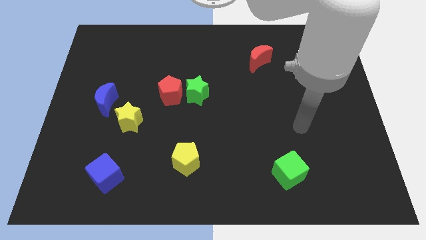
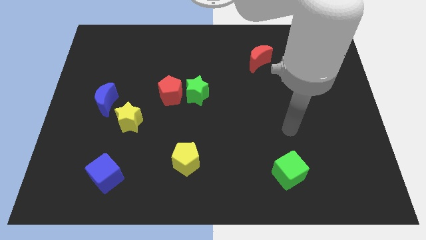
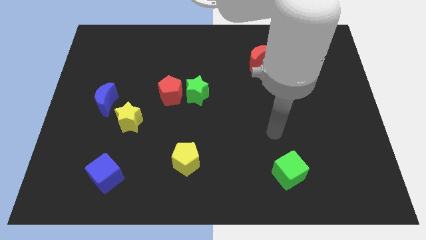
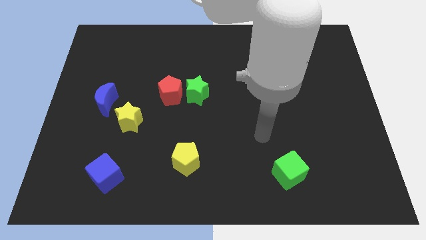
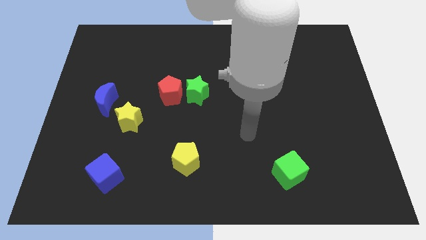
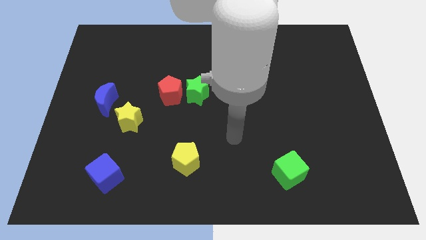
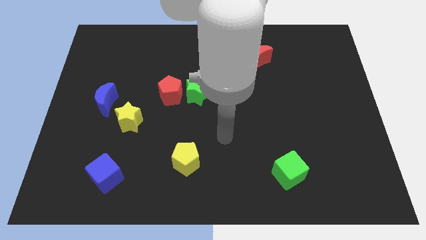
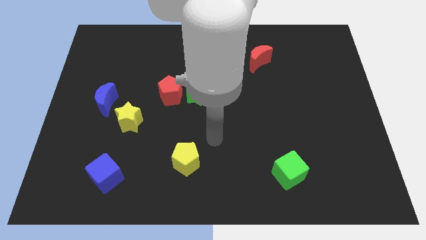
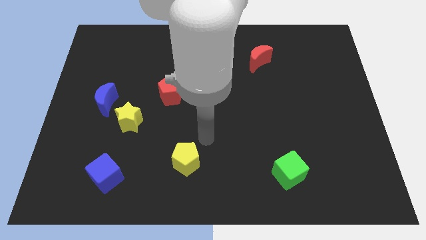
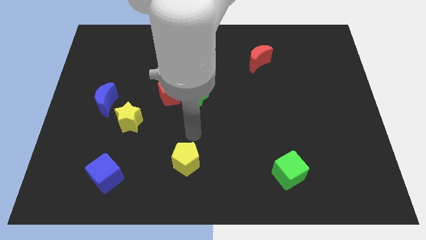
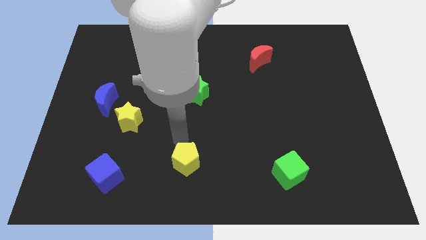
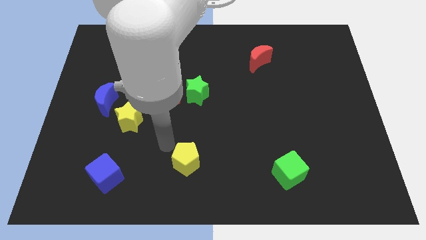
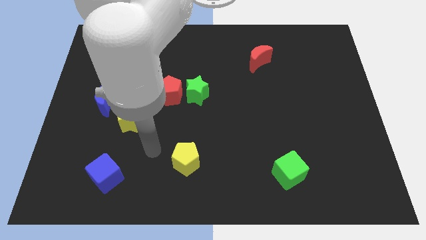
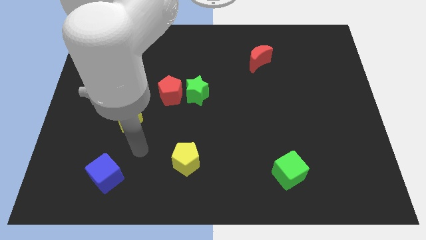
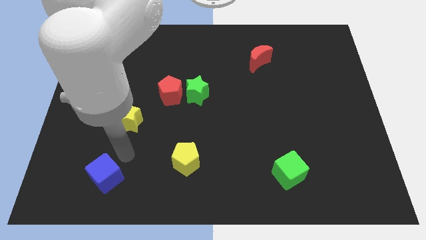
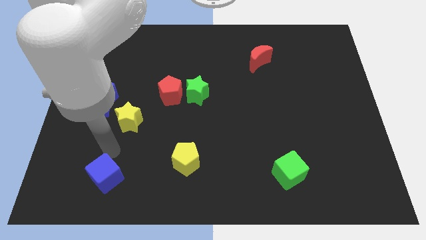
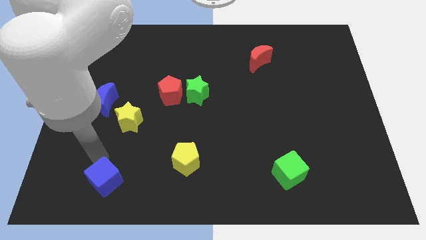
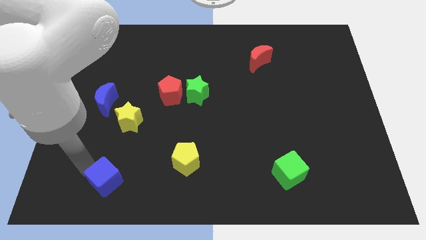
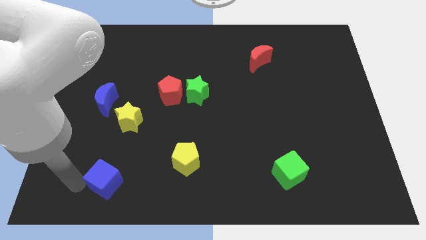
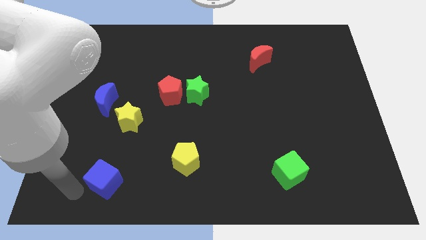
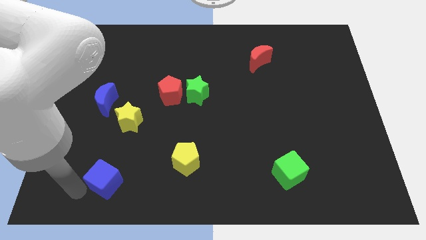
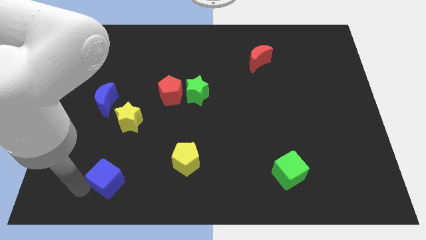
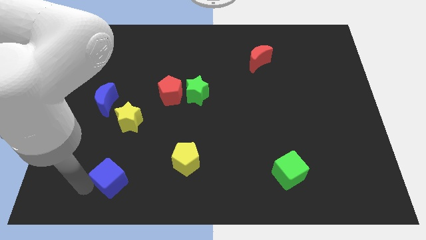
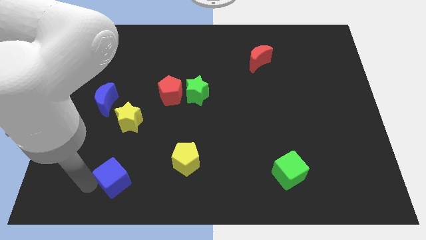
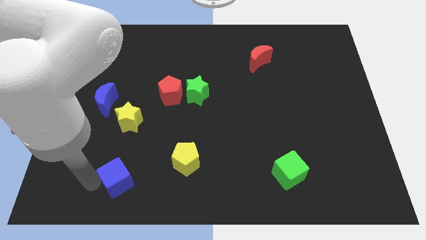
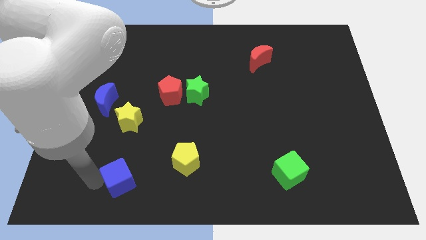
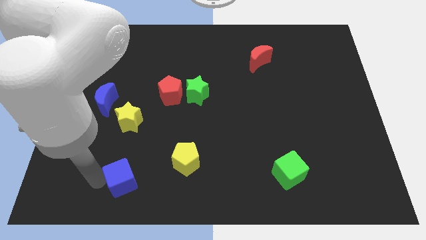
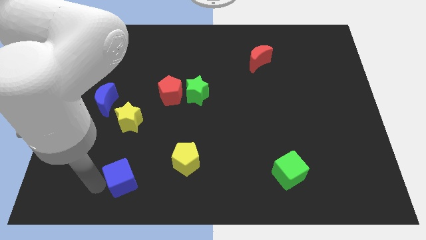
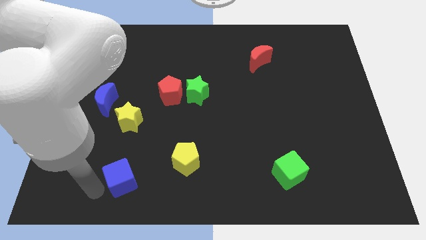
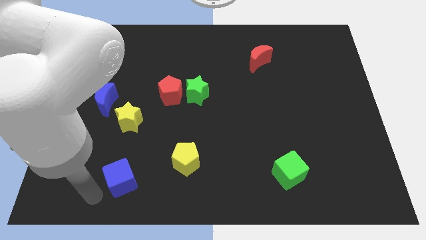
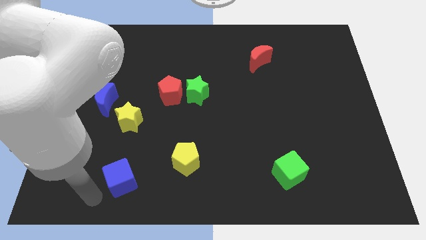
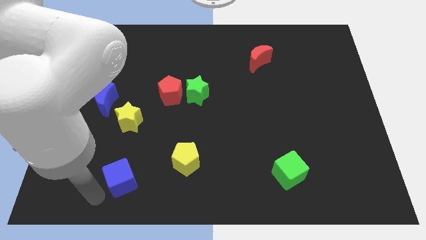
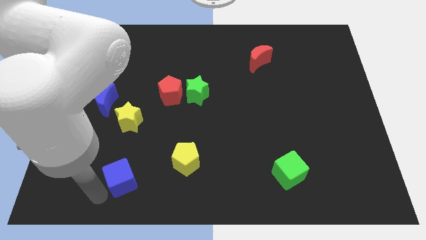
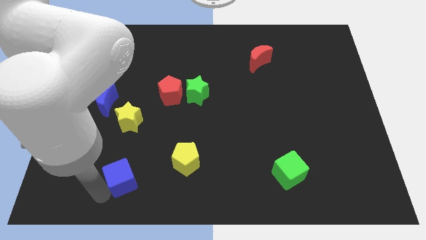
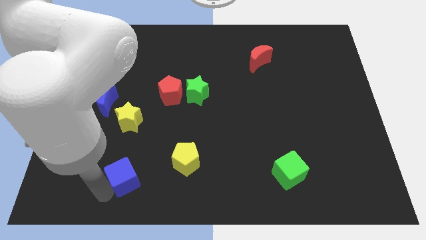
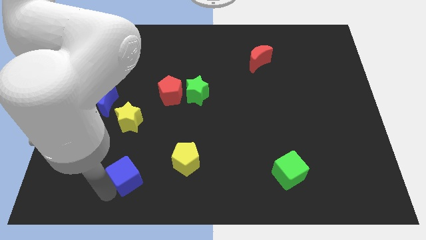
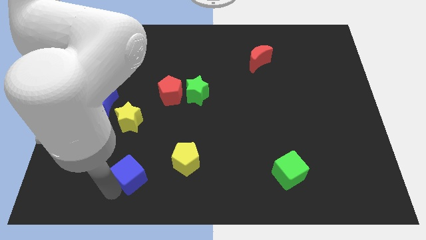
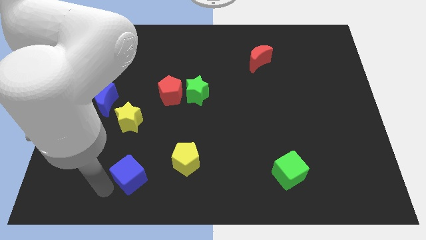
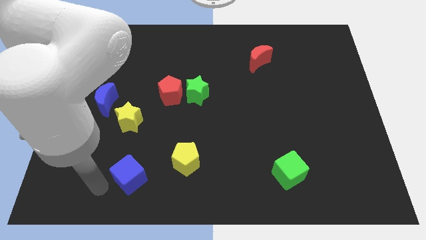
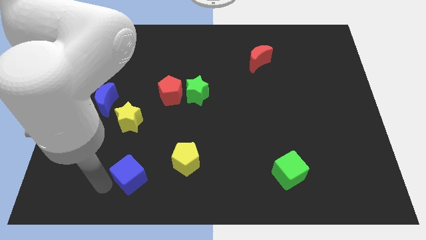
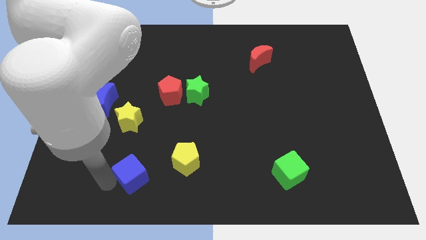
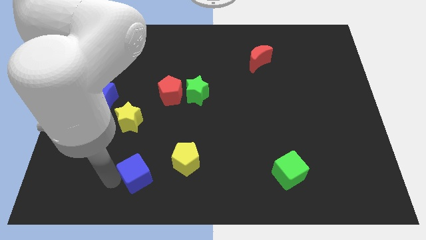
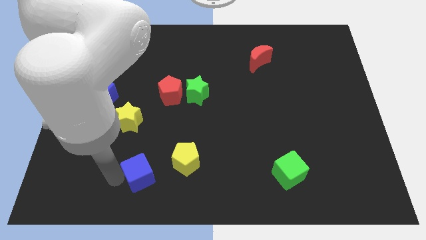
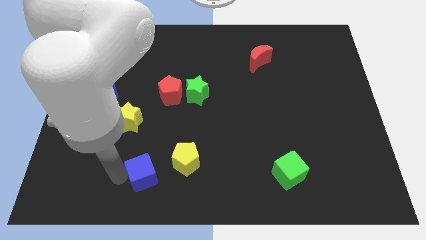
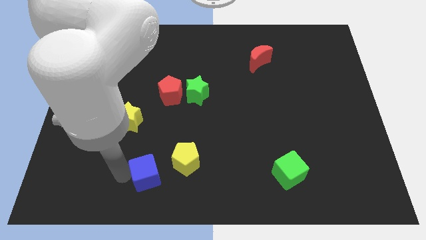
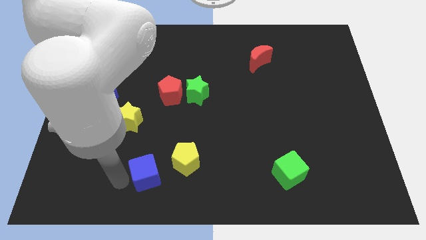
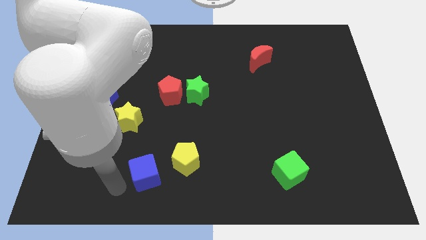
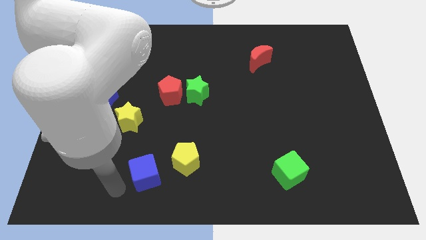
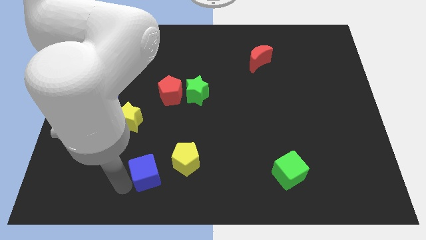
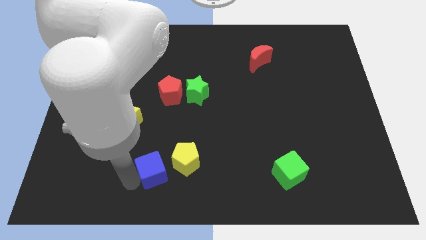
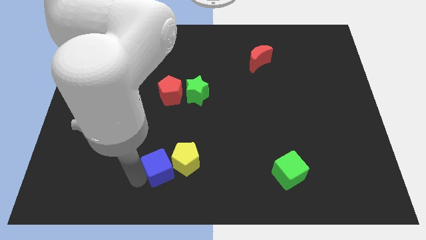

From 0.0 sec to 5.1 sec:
slide the blue cube next to the yellow pentagon
